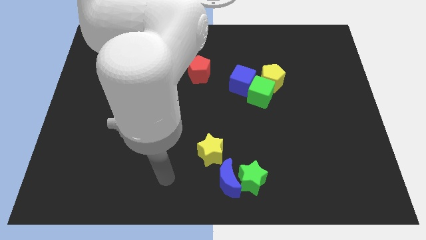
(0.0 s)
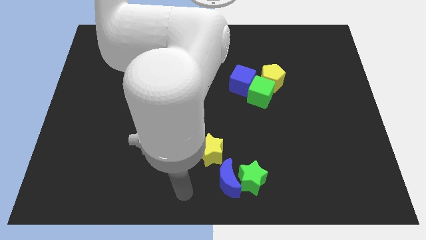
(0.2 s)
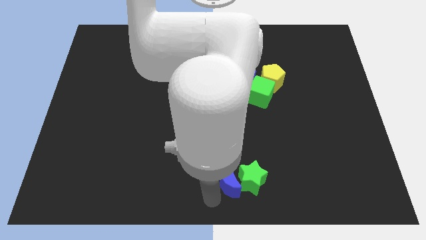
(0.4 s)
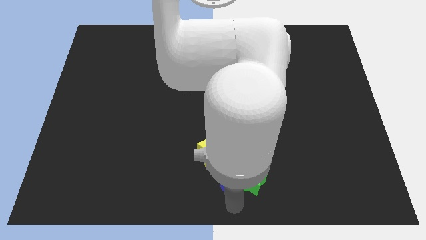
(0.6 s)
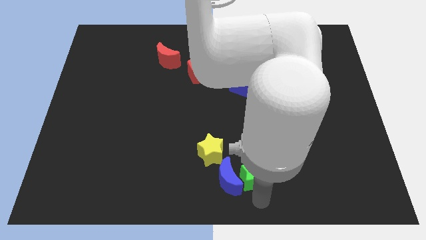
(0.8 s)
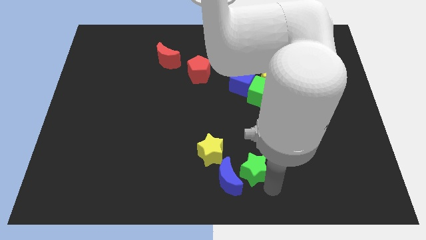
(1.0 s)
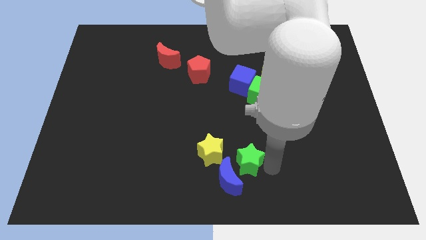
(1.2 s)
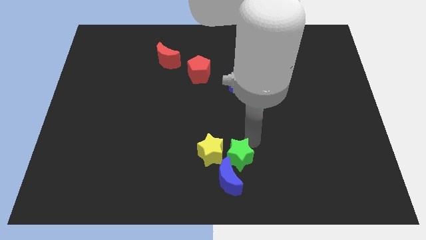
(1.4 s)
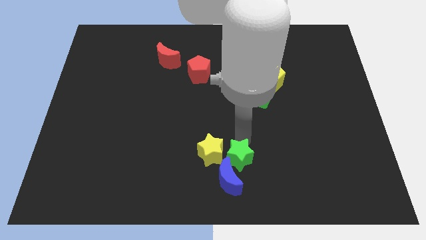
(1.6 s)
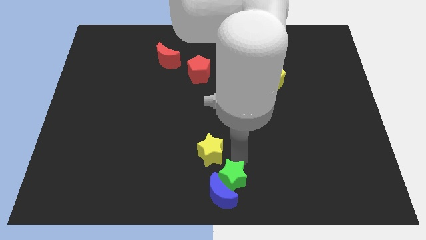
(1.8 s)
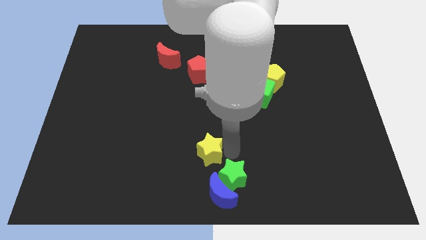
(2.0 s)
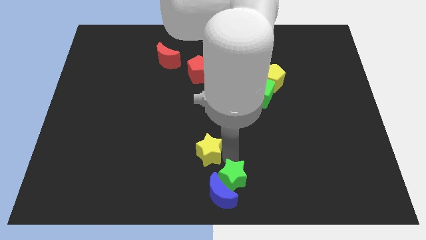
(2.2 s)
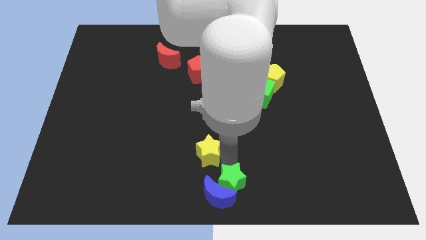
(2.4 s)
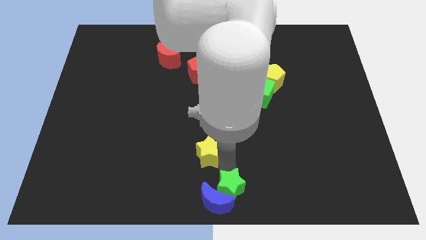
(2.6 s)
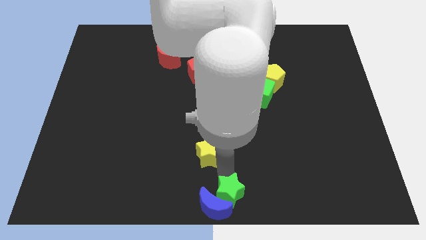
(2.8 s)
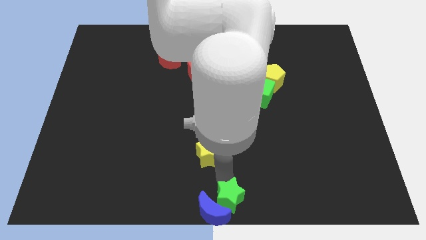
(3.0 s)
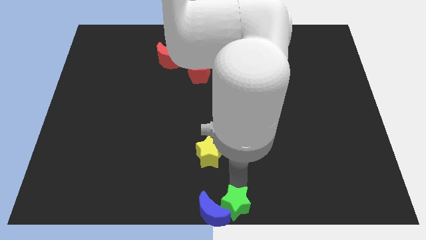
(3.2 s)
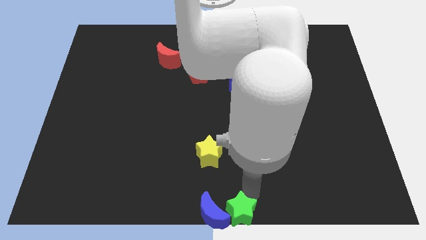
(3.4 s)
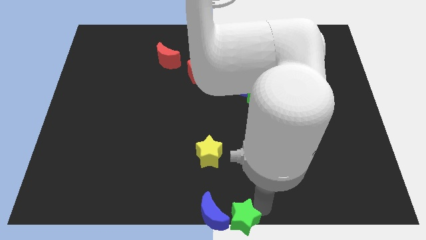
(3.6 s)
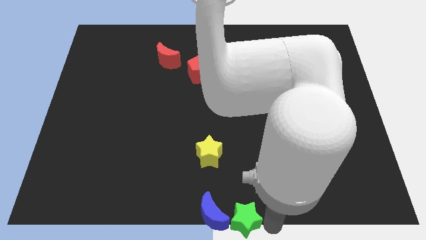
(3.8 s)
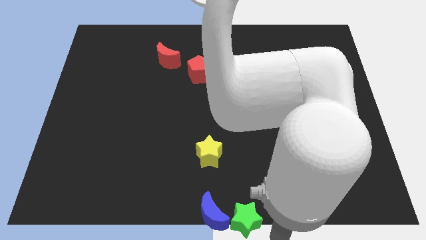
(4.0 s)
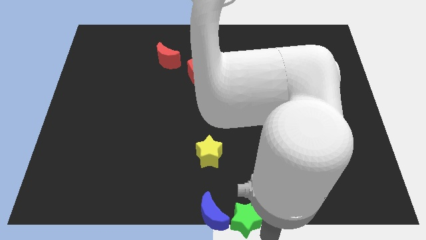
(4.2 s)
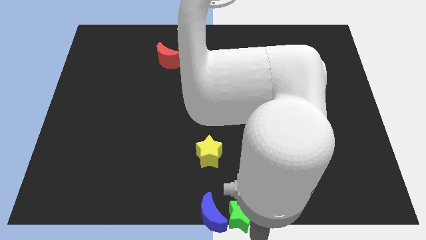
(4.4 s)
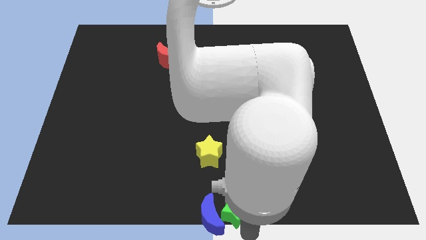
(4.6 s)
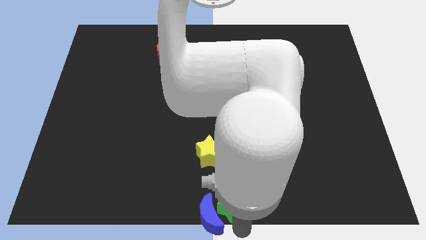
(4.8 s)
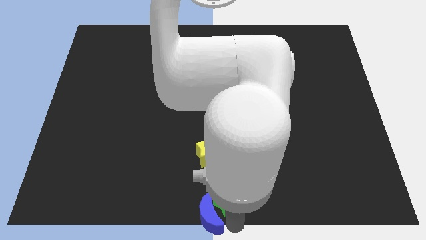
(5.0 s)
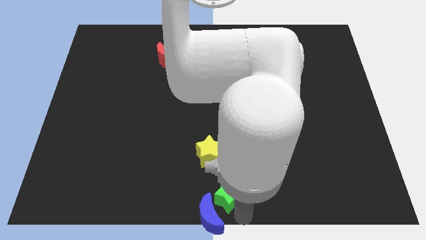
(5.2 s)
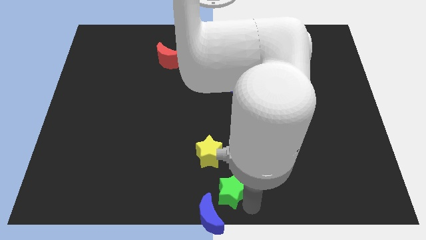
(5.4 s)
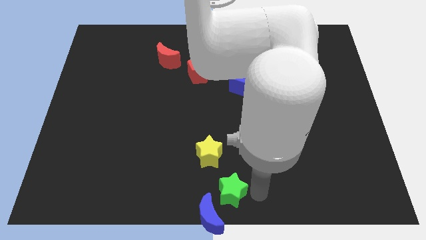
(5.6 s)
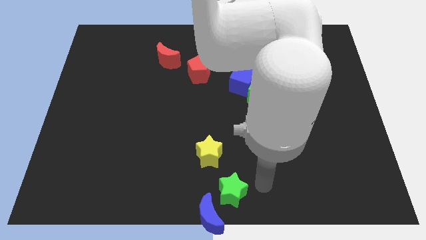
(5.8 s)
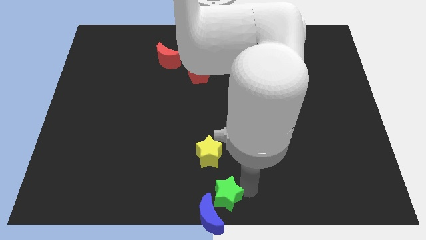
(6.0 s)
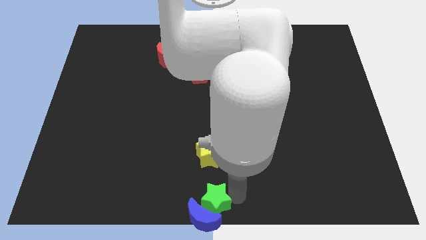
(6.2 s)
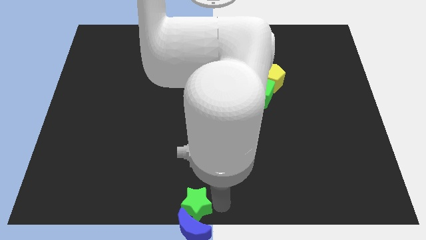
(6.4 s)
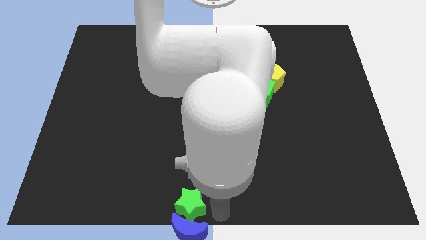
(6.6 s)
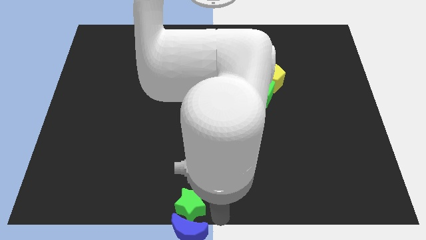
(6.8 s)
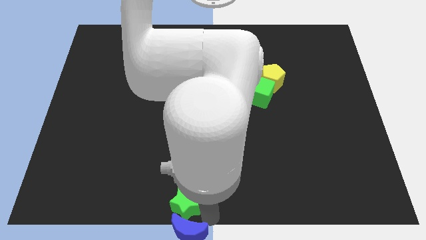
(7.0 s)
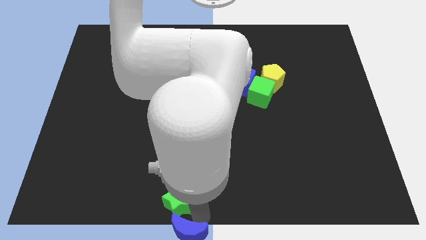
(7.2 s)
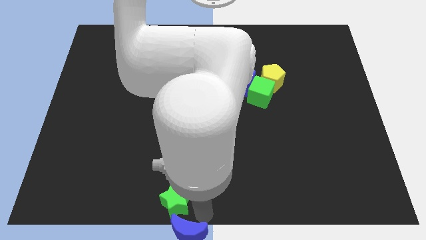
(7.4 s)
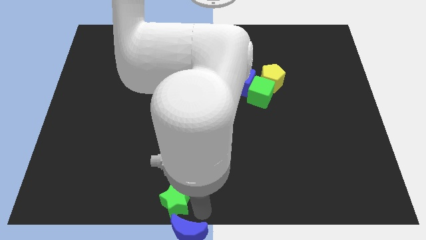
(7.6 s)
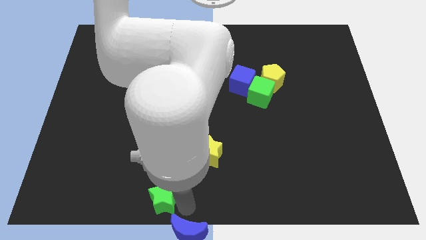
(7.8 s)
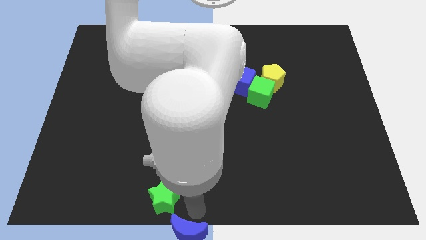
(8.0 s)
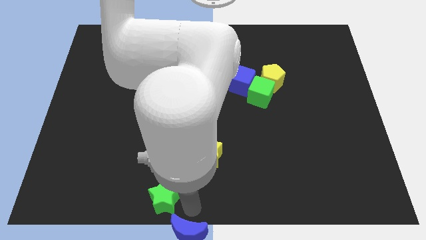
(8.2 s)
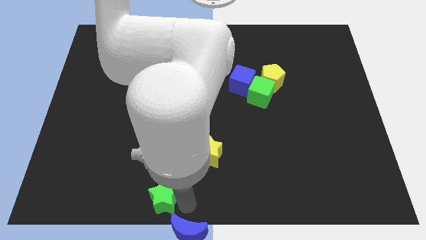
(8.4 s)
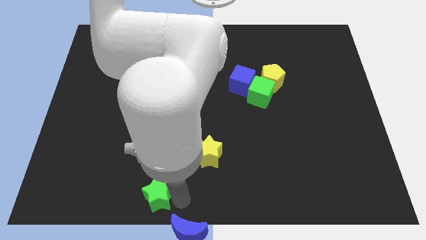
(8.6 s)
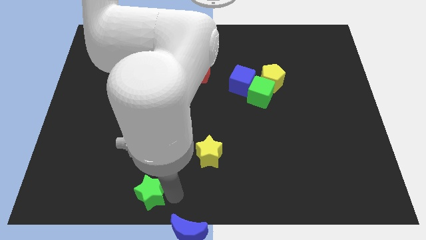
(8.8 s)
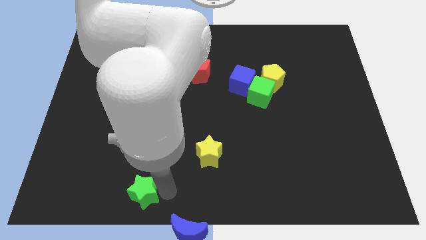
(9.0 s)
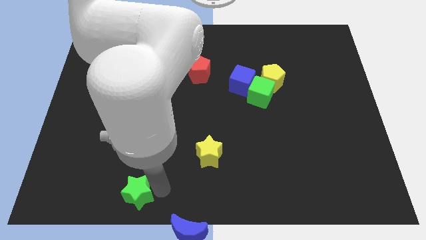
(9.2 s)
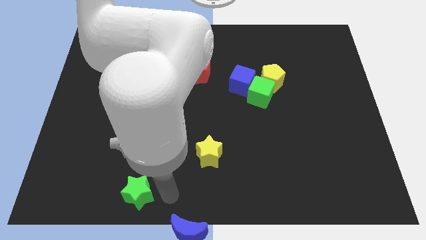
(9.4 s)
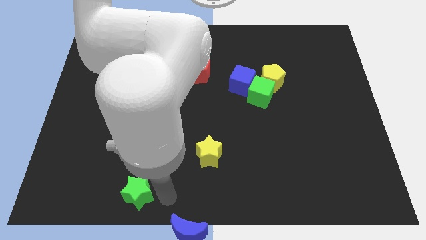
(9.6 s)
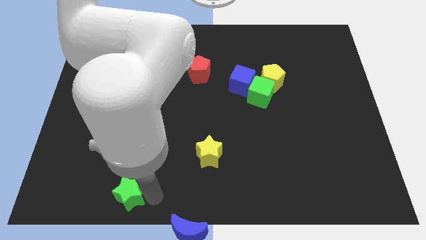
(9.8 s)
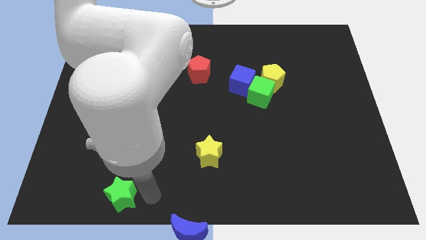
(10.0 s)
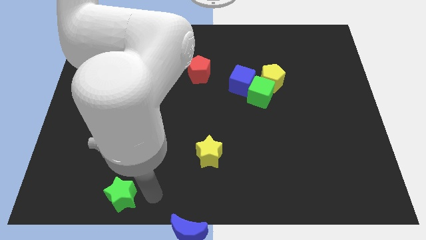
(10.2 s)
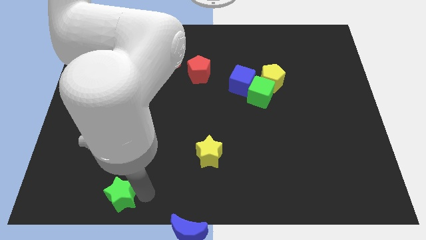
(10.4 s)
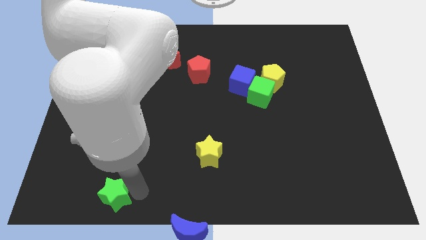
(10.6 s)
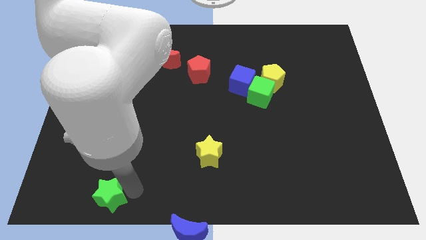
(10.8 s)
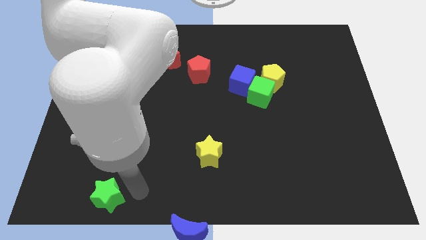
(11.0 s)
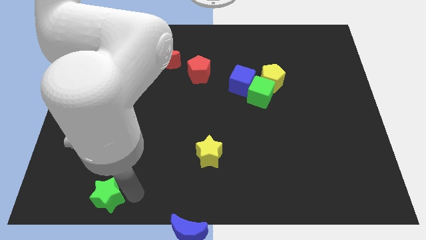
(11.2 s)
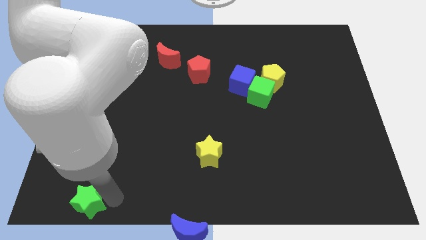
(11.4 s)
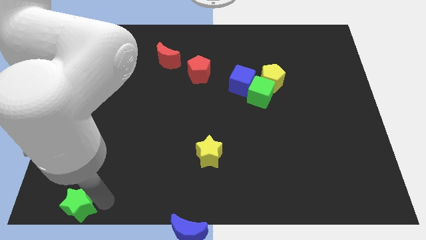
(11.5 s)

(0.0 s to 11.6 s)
put the green star to the bottom left corner

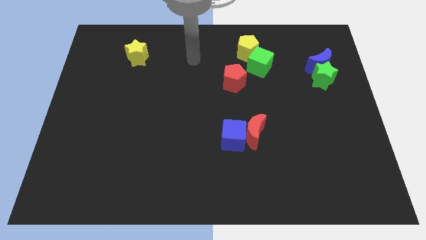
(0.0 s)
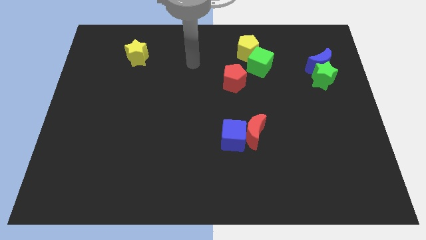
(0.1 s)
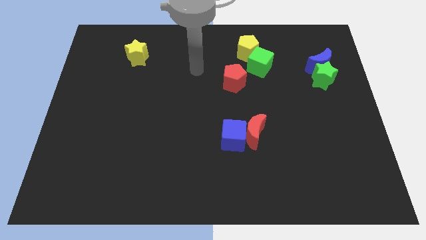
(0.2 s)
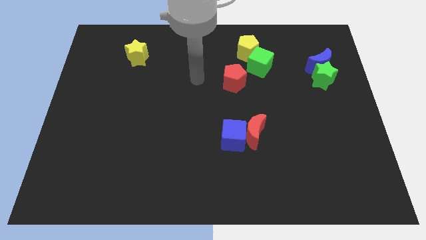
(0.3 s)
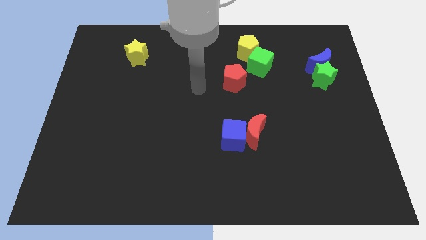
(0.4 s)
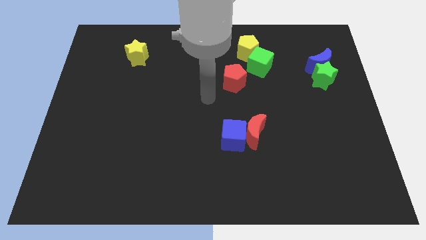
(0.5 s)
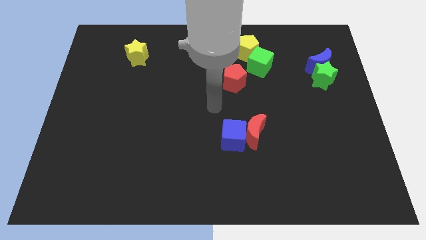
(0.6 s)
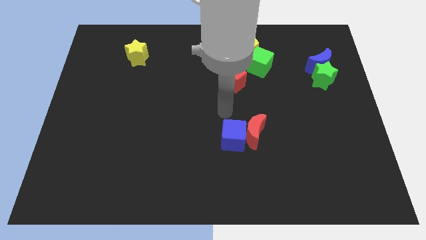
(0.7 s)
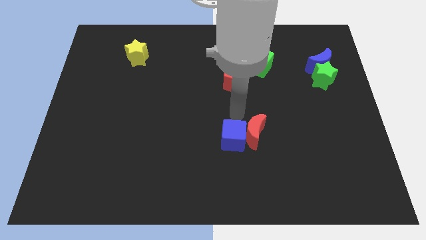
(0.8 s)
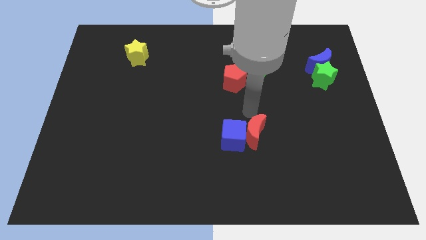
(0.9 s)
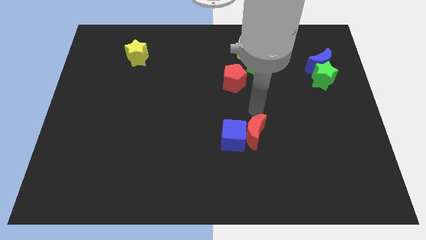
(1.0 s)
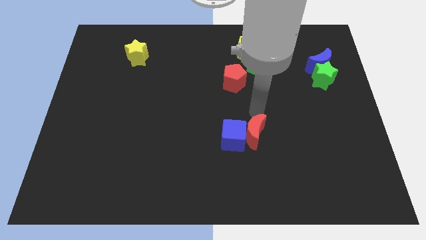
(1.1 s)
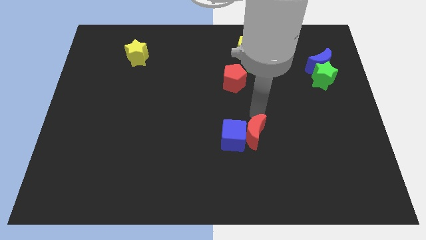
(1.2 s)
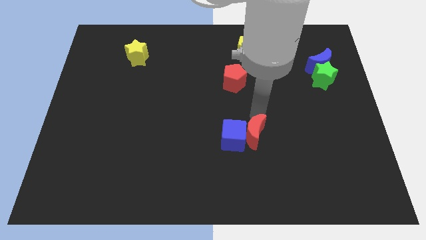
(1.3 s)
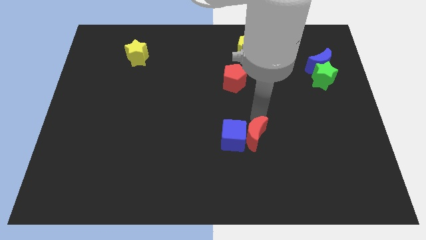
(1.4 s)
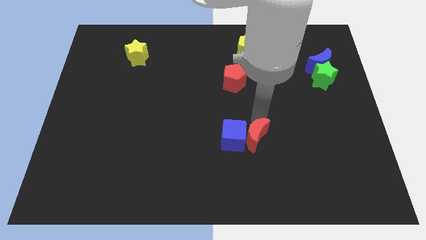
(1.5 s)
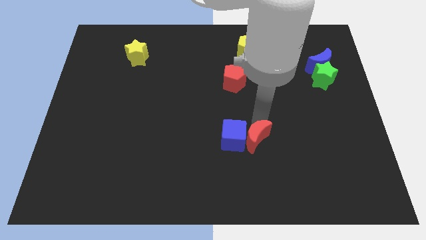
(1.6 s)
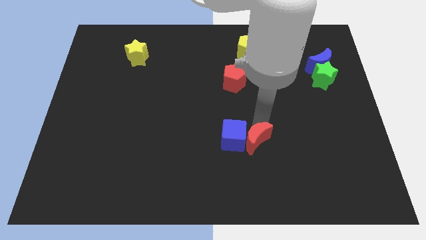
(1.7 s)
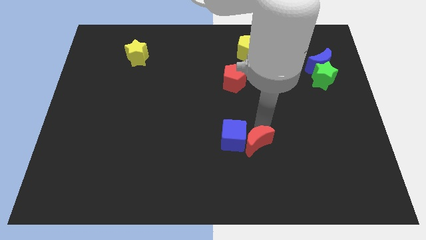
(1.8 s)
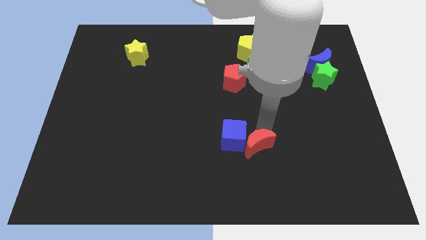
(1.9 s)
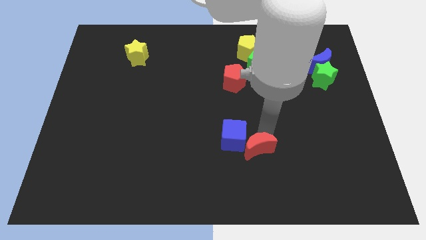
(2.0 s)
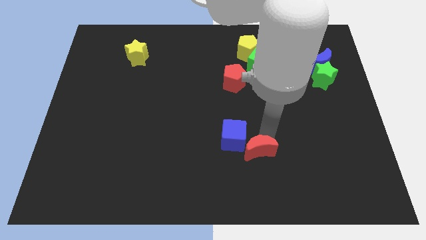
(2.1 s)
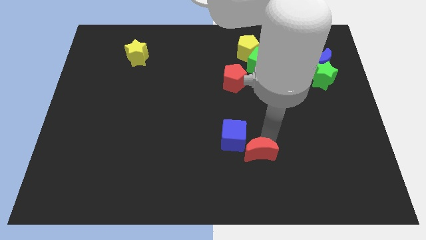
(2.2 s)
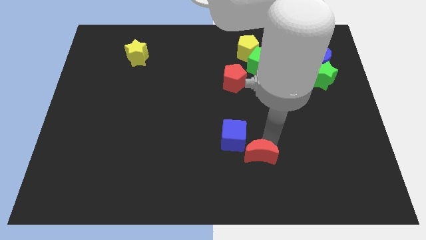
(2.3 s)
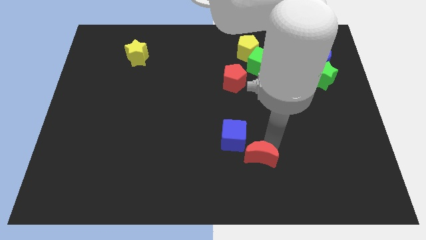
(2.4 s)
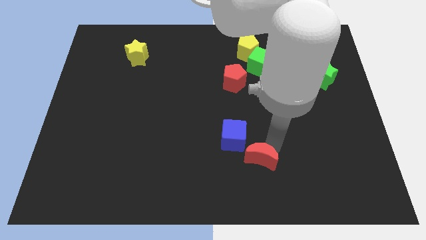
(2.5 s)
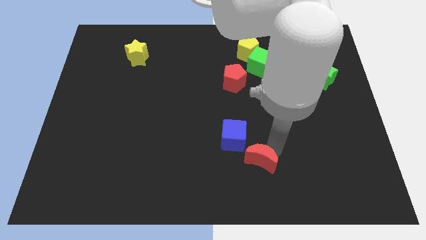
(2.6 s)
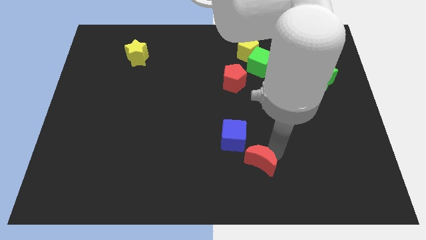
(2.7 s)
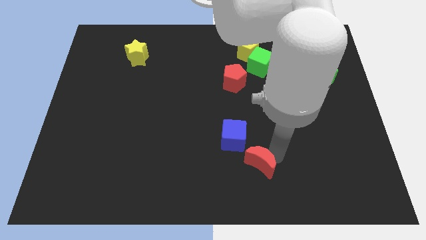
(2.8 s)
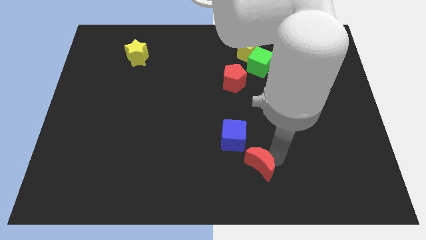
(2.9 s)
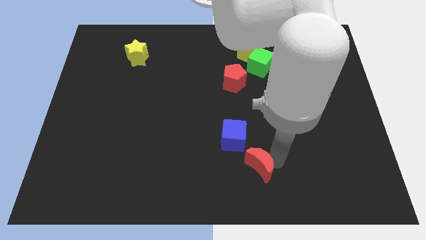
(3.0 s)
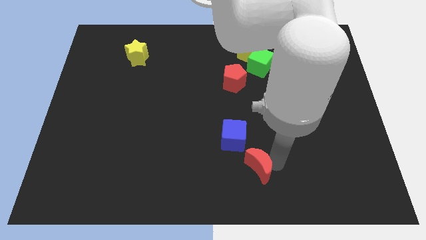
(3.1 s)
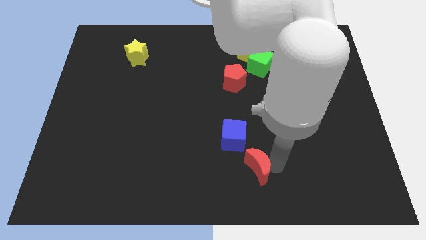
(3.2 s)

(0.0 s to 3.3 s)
put the red moon to the bottom
